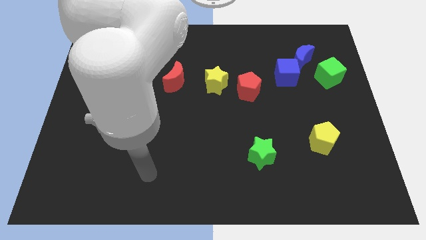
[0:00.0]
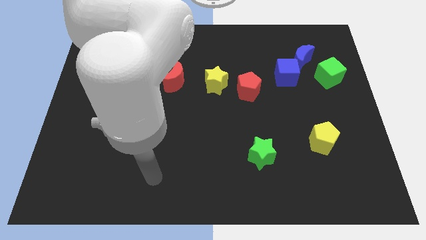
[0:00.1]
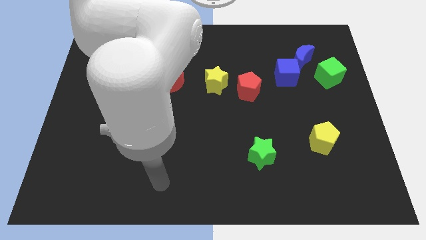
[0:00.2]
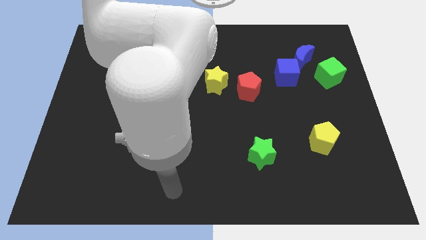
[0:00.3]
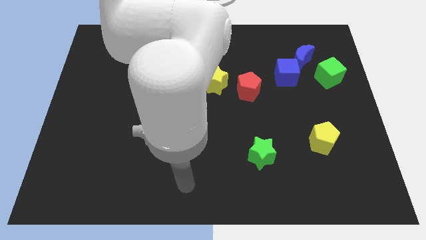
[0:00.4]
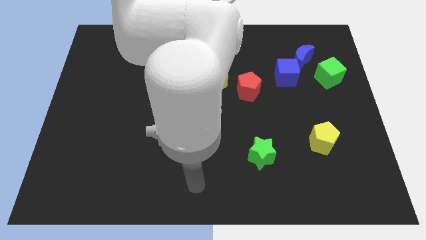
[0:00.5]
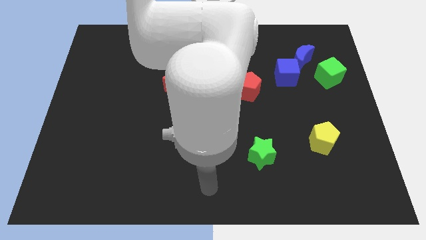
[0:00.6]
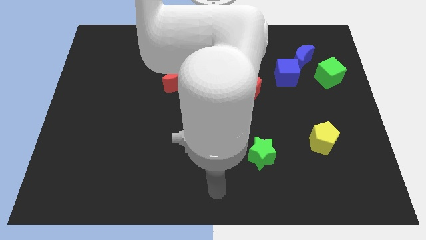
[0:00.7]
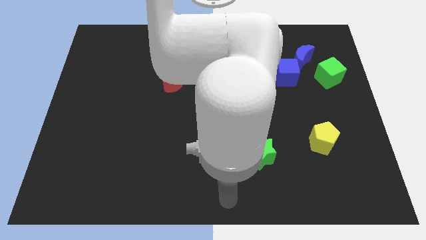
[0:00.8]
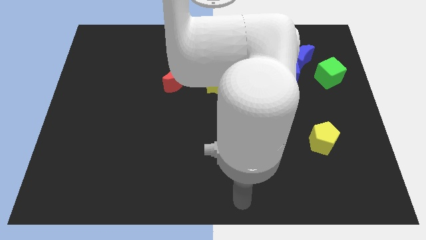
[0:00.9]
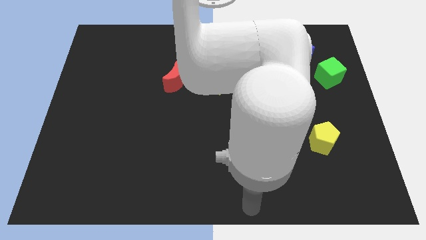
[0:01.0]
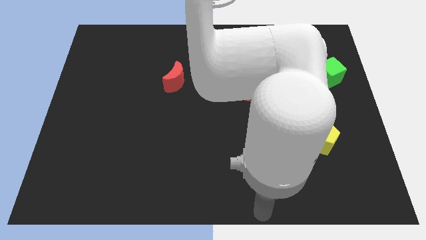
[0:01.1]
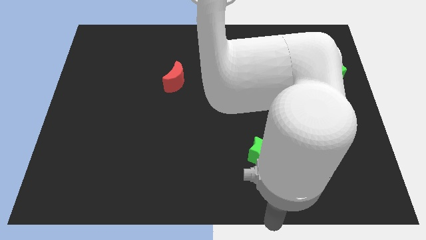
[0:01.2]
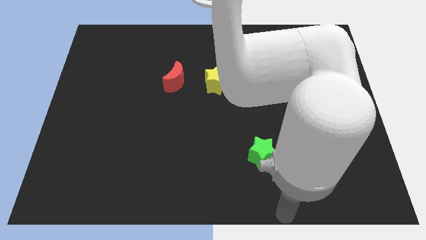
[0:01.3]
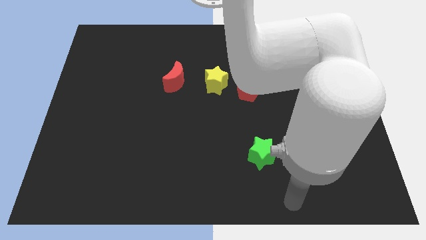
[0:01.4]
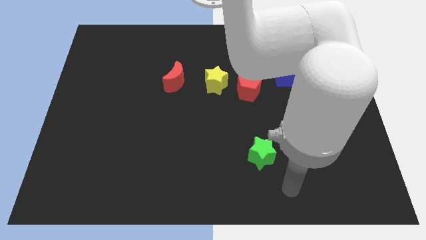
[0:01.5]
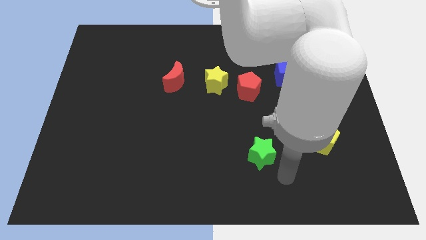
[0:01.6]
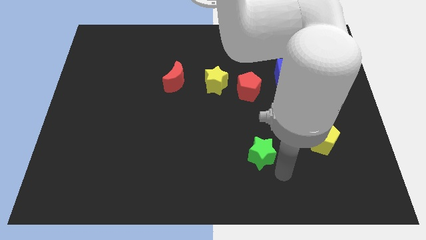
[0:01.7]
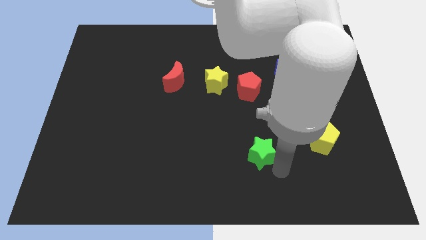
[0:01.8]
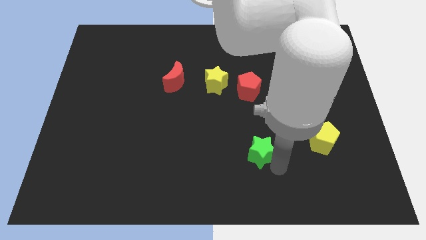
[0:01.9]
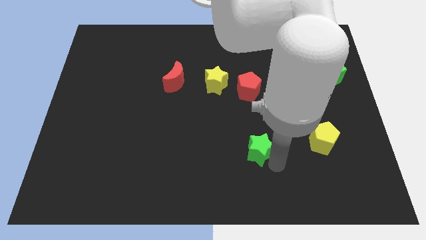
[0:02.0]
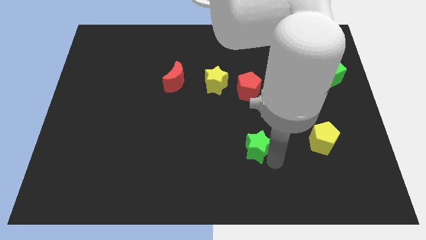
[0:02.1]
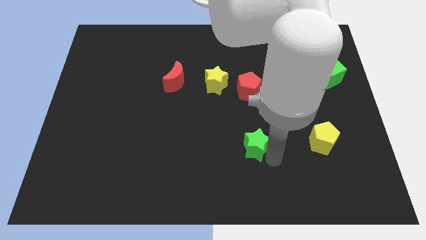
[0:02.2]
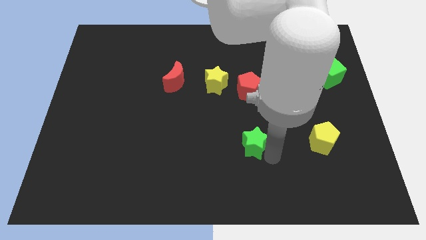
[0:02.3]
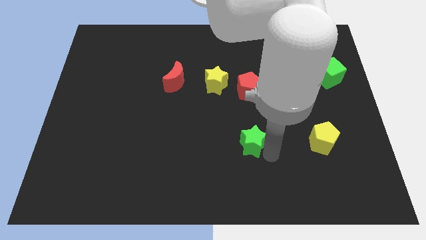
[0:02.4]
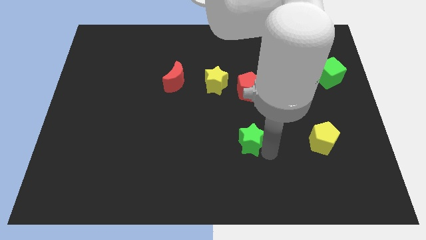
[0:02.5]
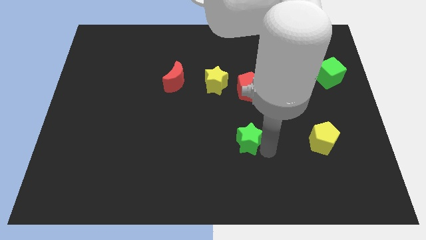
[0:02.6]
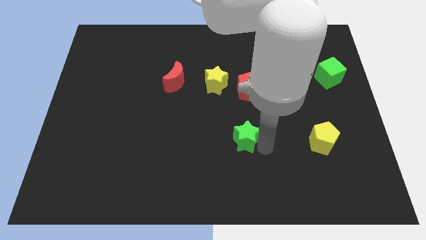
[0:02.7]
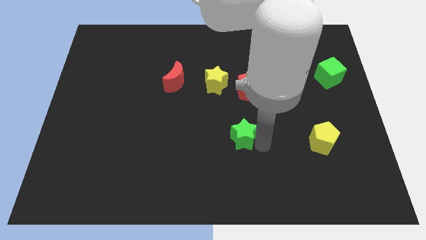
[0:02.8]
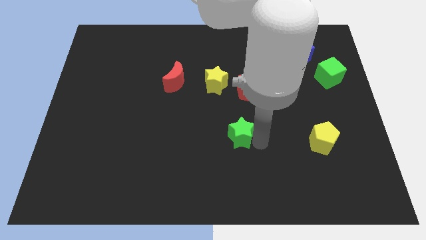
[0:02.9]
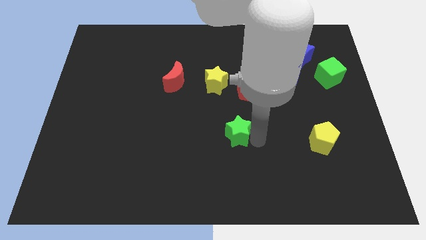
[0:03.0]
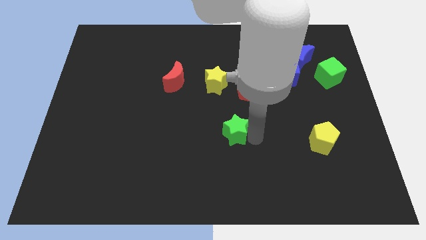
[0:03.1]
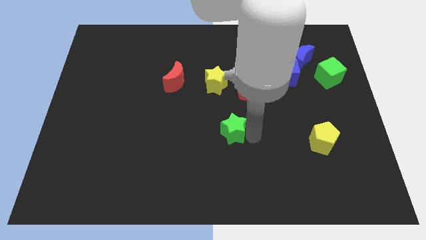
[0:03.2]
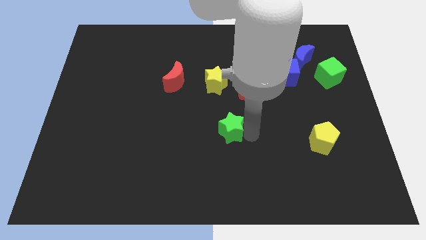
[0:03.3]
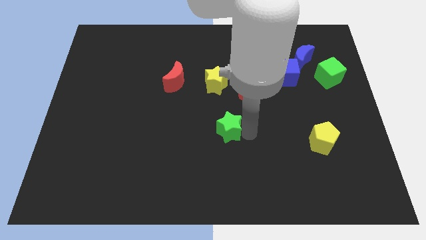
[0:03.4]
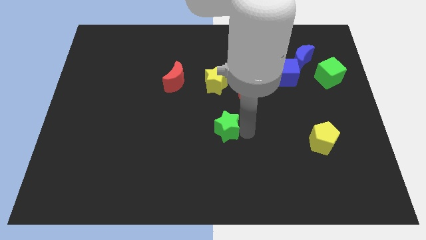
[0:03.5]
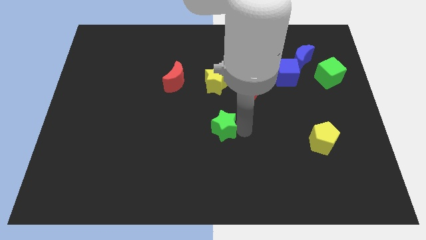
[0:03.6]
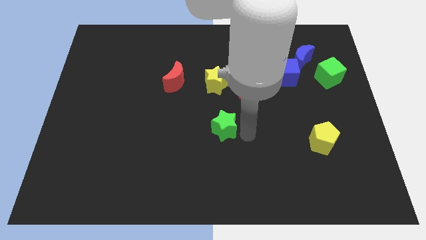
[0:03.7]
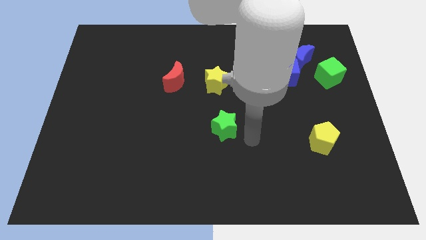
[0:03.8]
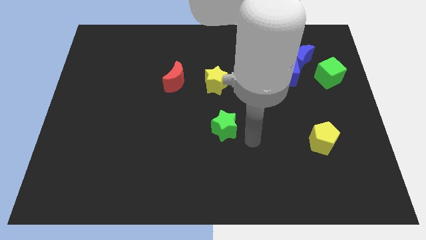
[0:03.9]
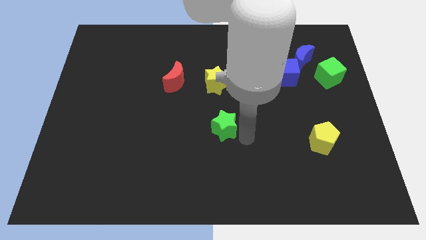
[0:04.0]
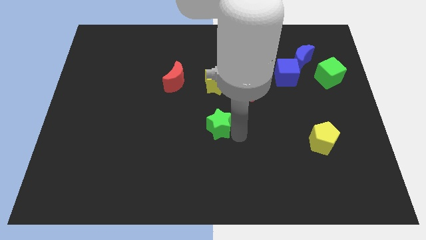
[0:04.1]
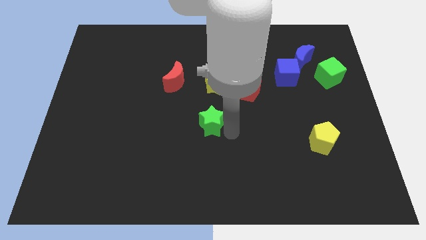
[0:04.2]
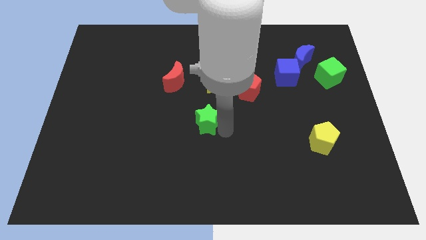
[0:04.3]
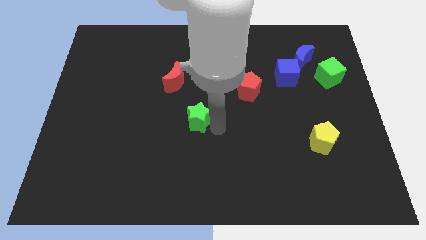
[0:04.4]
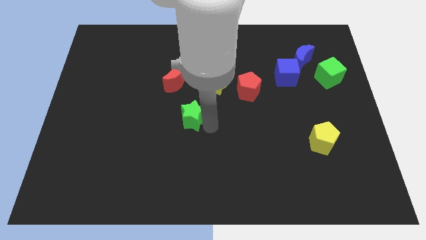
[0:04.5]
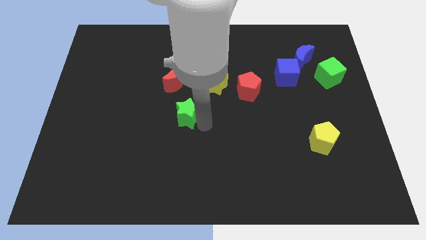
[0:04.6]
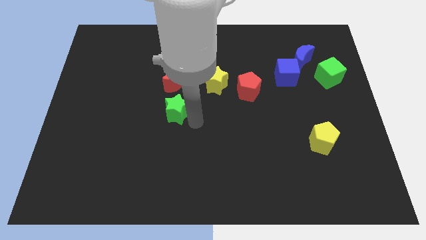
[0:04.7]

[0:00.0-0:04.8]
move the green star diagonally upwards and left

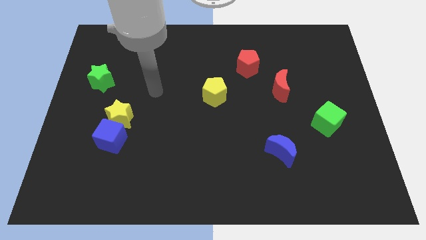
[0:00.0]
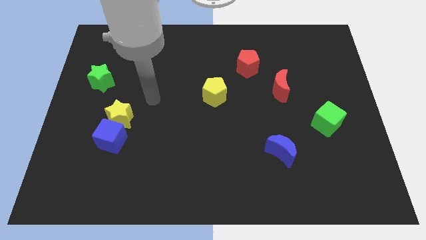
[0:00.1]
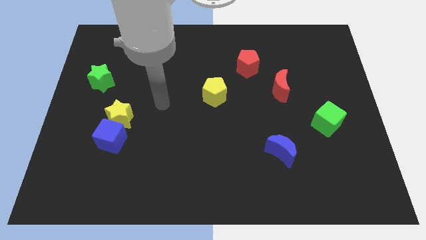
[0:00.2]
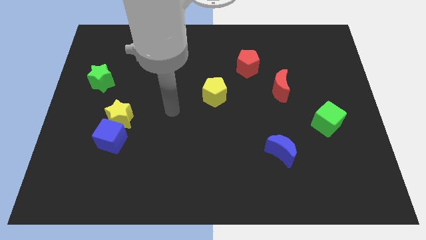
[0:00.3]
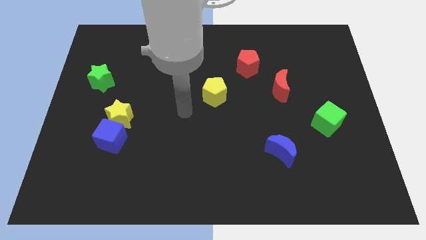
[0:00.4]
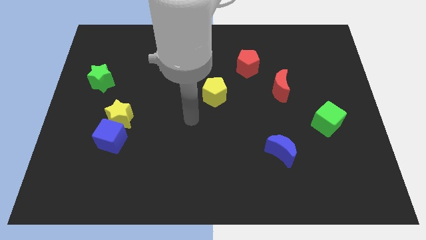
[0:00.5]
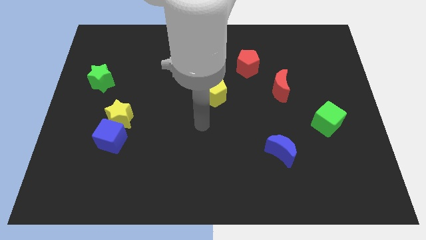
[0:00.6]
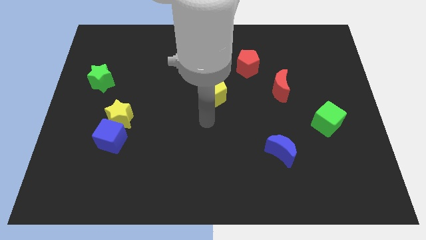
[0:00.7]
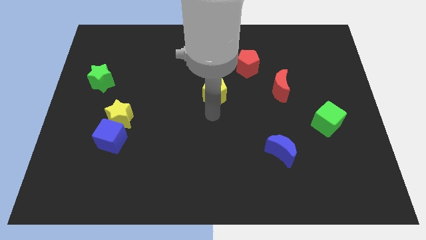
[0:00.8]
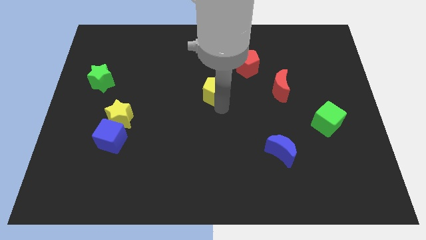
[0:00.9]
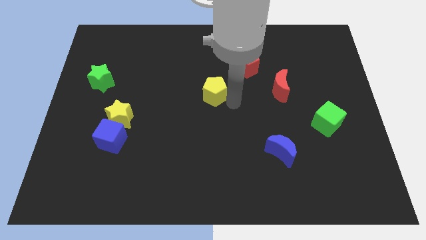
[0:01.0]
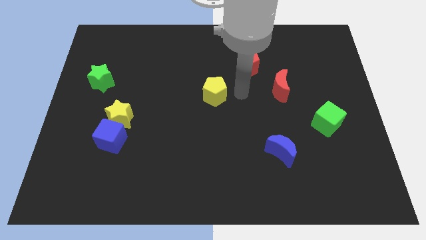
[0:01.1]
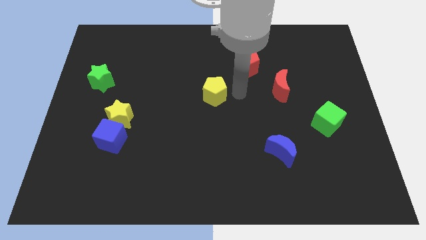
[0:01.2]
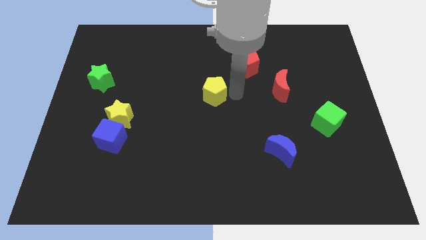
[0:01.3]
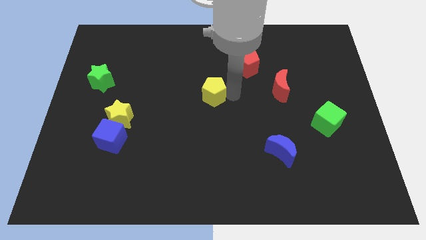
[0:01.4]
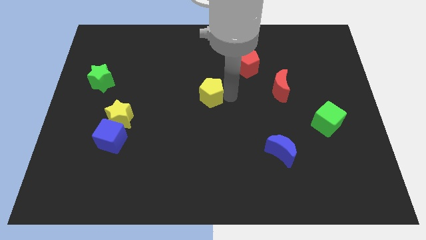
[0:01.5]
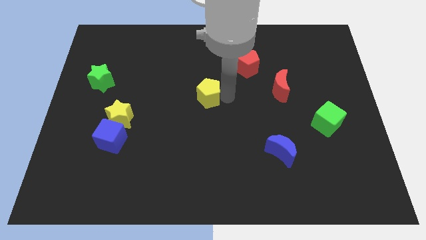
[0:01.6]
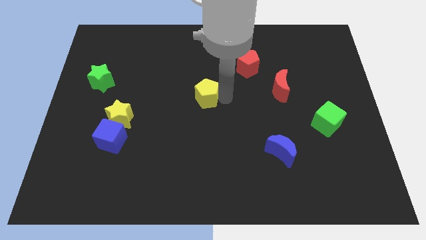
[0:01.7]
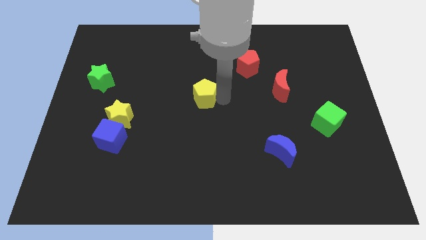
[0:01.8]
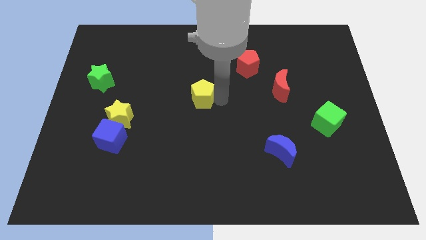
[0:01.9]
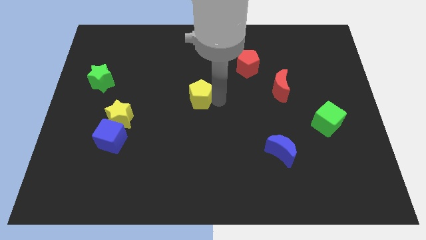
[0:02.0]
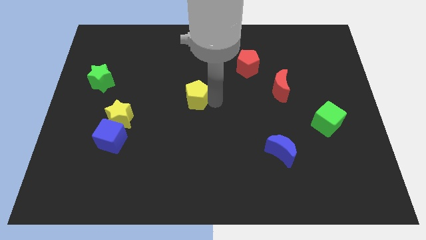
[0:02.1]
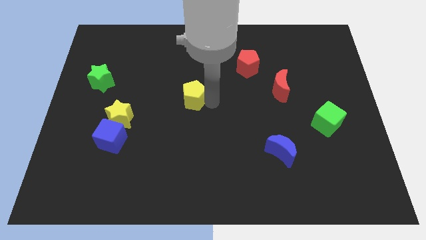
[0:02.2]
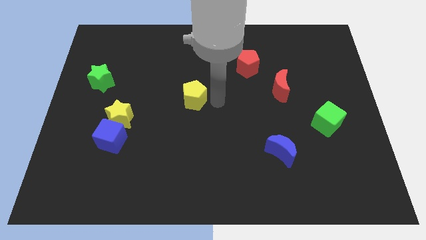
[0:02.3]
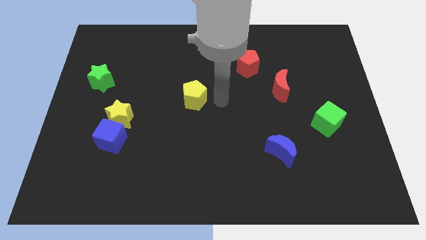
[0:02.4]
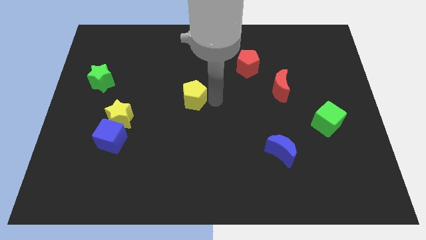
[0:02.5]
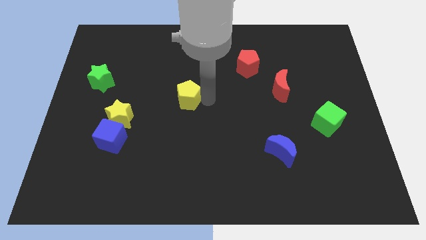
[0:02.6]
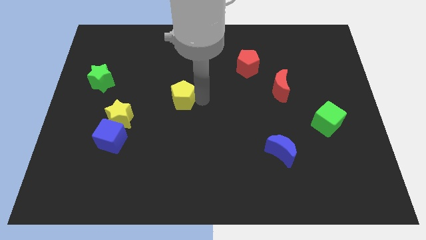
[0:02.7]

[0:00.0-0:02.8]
slightly push the yellow pentagon to the left

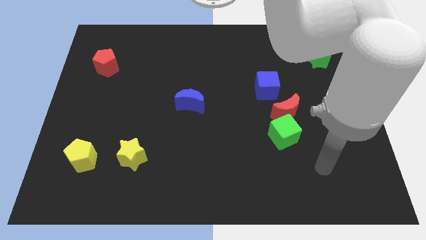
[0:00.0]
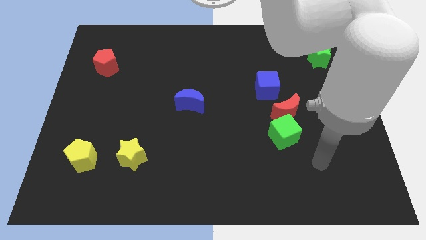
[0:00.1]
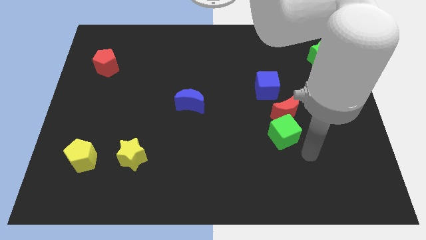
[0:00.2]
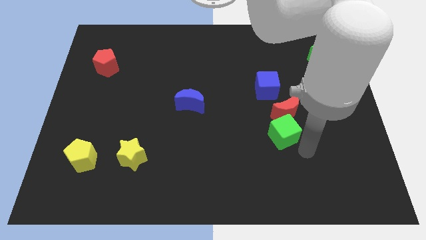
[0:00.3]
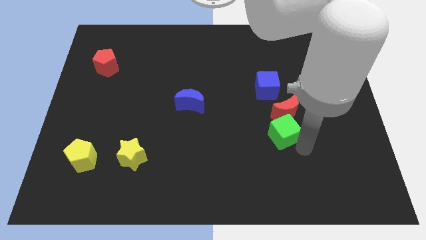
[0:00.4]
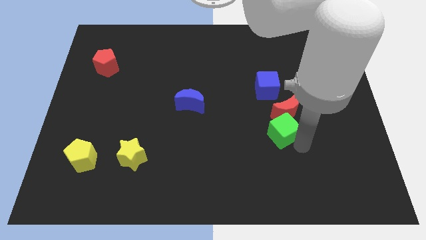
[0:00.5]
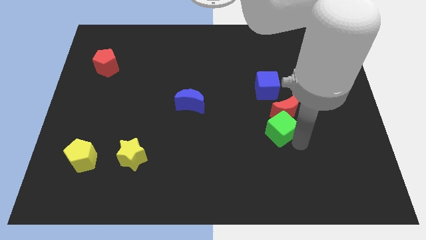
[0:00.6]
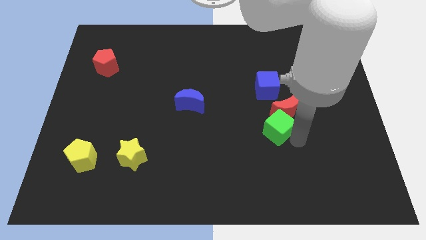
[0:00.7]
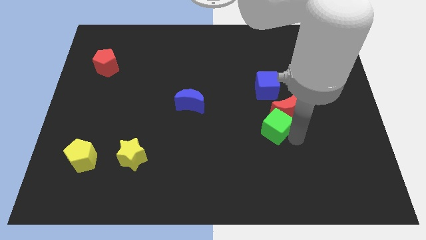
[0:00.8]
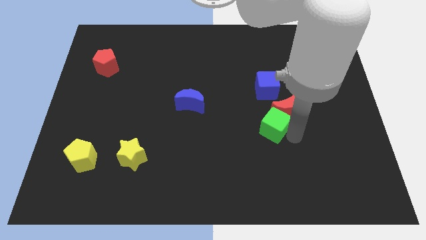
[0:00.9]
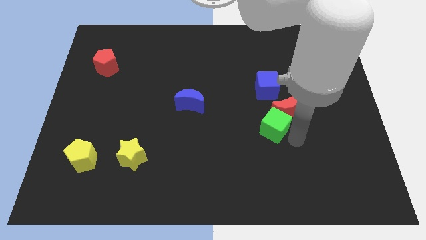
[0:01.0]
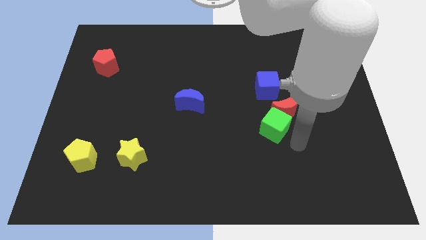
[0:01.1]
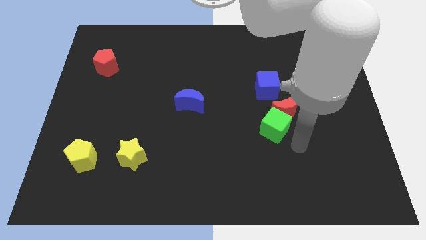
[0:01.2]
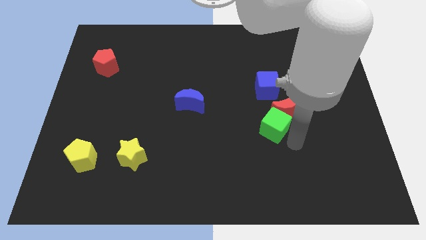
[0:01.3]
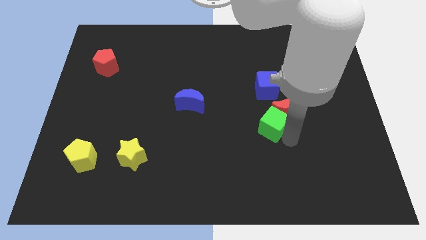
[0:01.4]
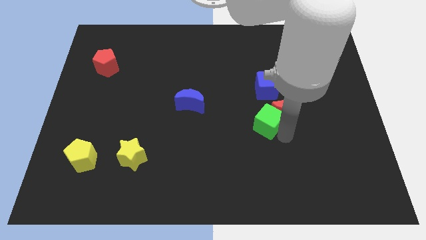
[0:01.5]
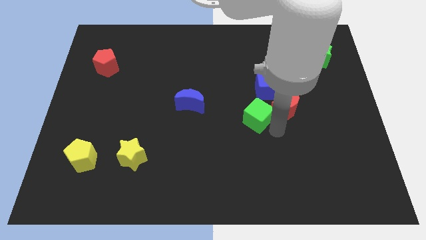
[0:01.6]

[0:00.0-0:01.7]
push the green cube up and then to the left somewhat
